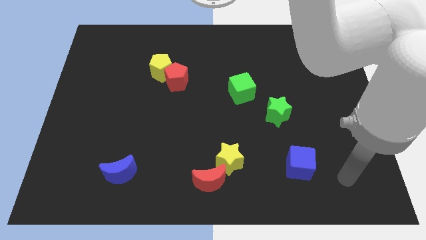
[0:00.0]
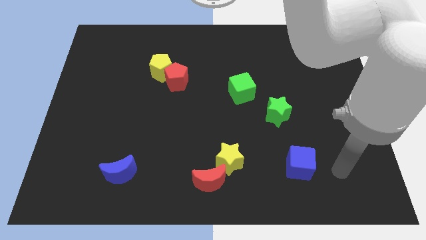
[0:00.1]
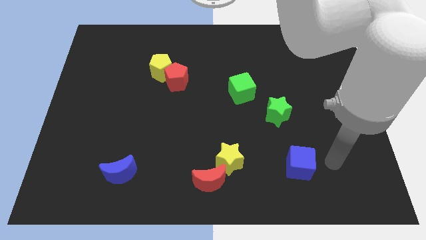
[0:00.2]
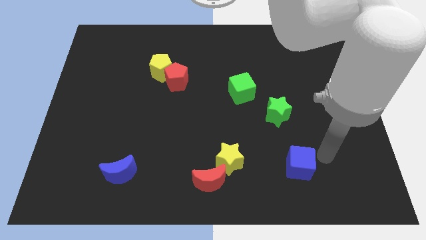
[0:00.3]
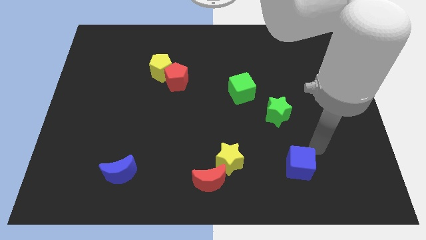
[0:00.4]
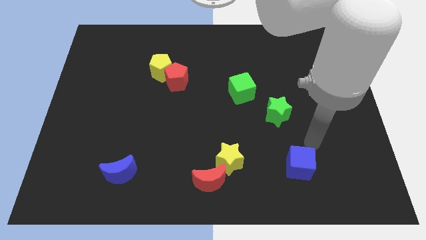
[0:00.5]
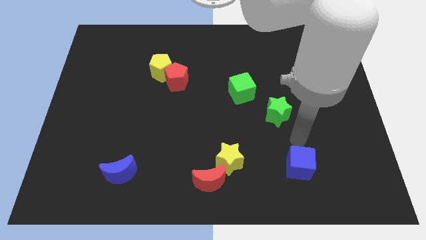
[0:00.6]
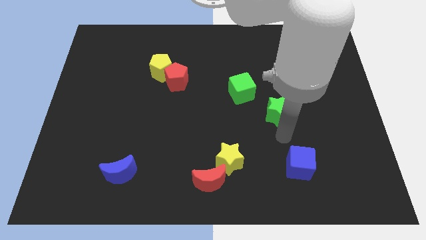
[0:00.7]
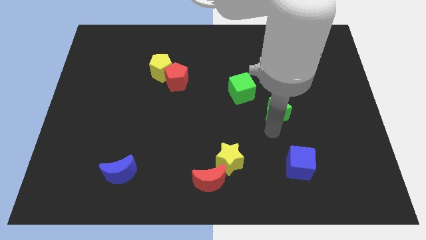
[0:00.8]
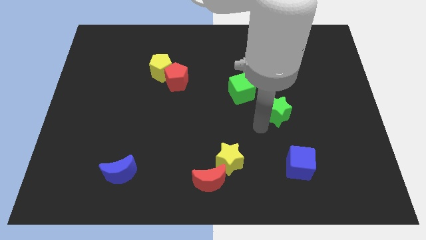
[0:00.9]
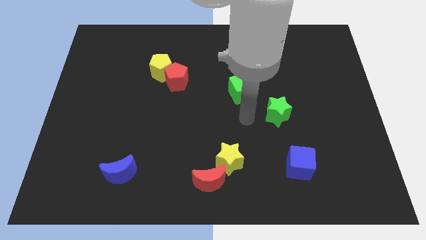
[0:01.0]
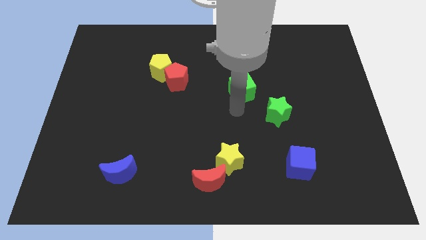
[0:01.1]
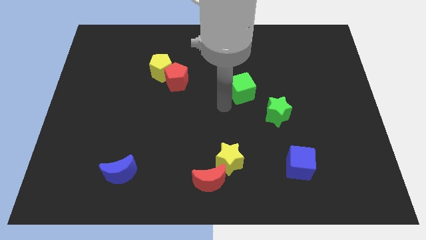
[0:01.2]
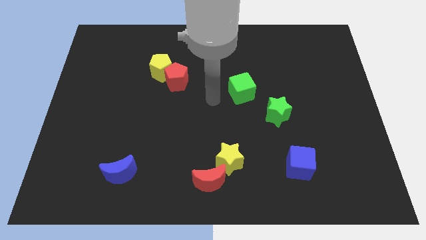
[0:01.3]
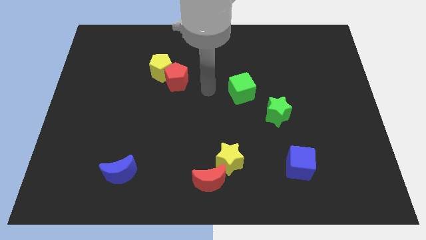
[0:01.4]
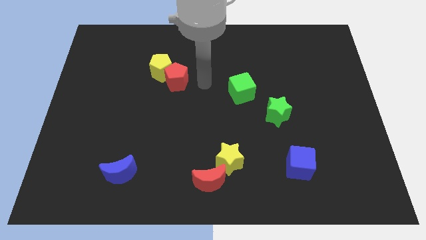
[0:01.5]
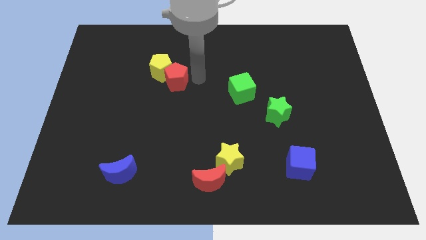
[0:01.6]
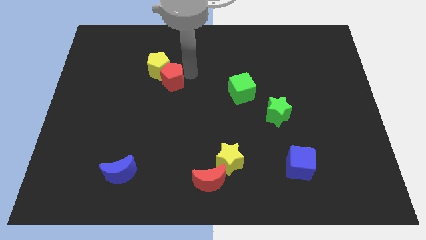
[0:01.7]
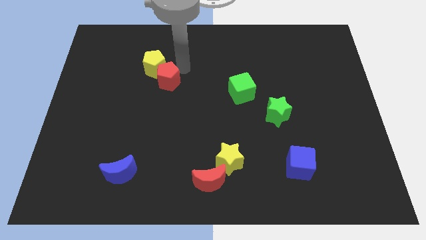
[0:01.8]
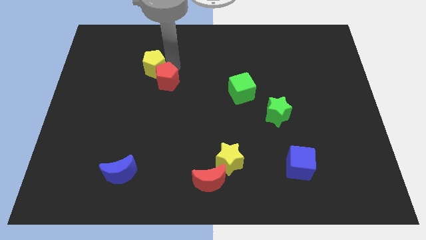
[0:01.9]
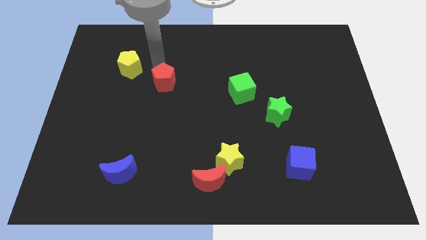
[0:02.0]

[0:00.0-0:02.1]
move the red pentagon away from the yellow pentagon

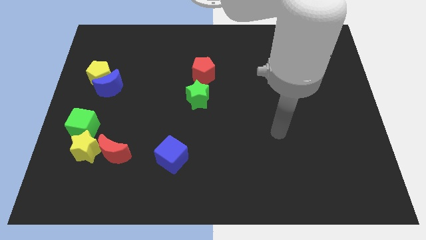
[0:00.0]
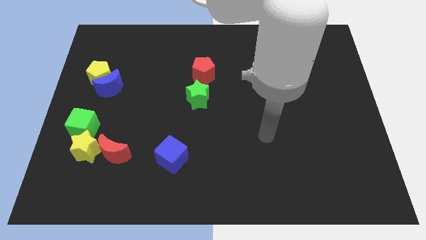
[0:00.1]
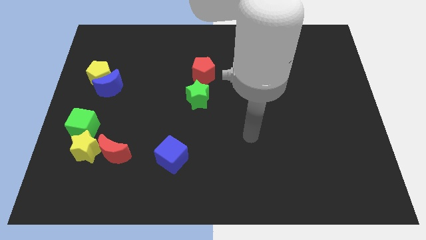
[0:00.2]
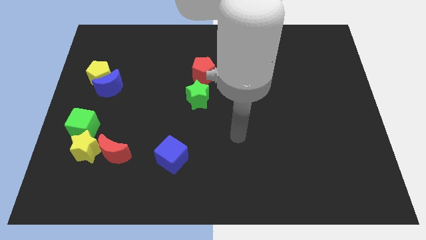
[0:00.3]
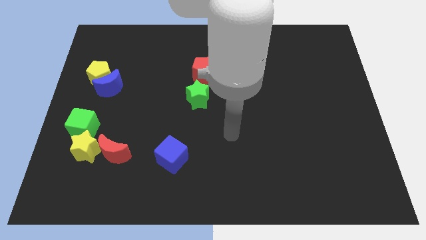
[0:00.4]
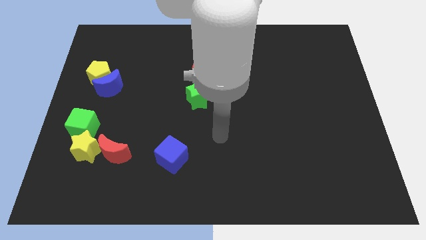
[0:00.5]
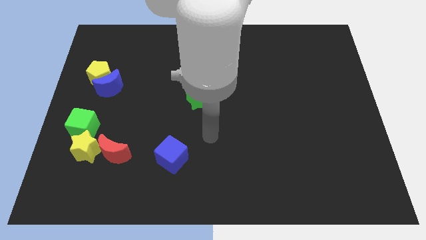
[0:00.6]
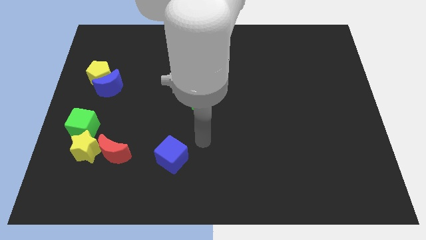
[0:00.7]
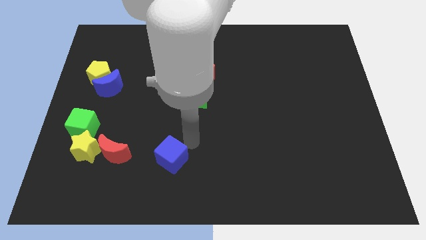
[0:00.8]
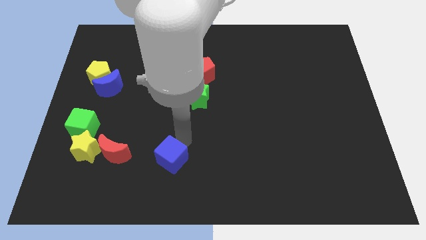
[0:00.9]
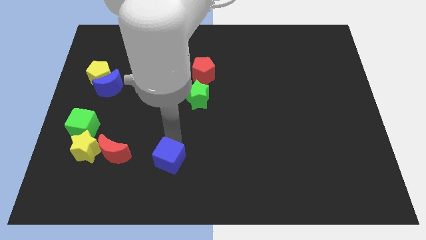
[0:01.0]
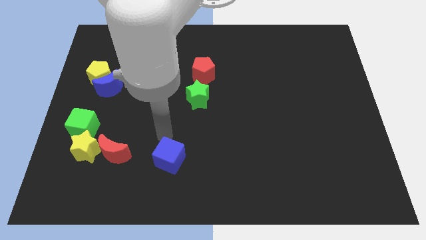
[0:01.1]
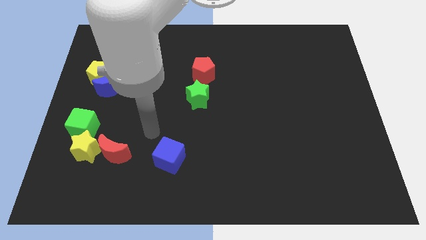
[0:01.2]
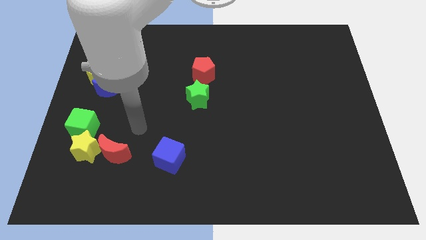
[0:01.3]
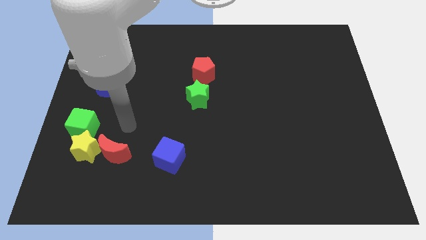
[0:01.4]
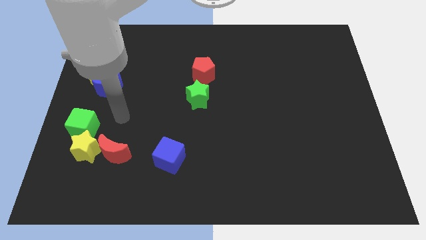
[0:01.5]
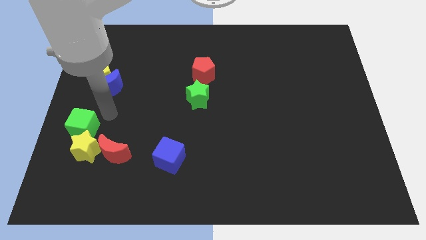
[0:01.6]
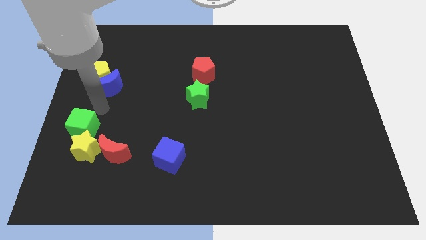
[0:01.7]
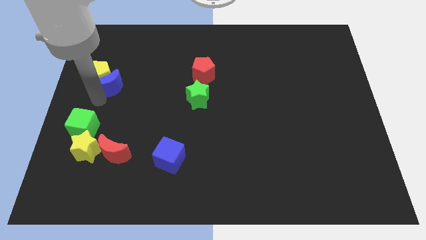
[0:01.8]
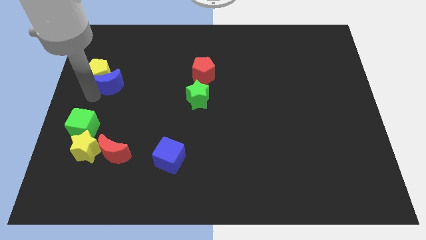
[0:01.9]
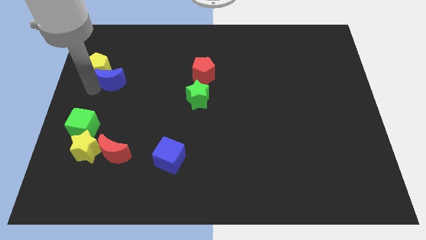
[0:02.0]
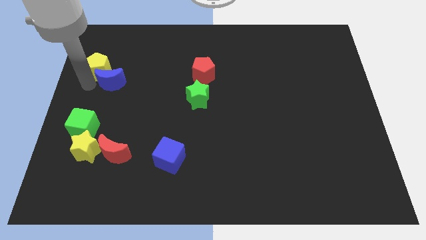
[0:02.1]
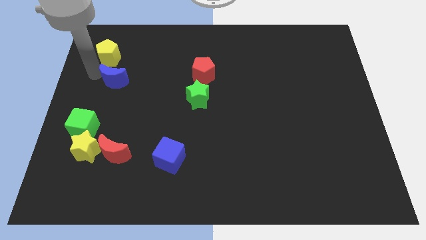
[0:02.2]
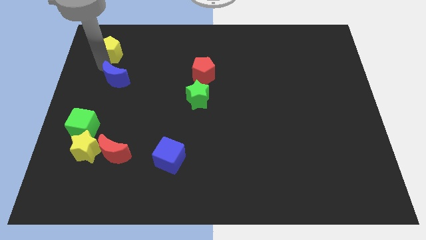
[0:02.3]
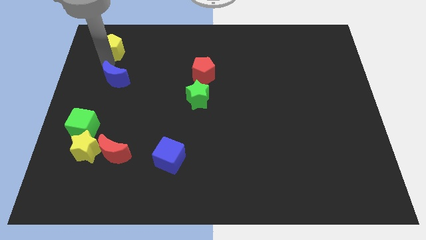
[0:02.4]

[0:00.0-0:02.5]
pull the blue moon apart from the yellow pentagon

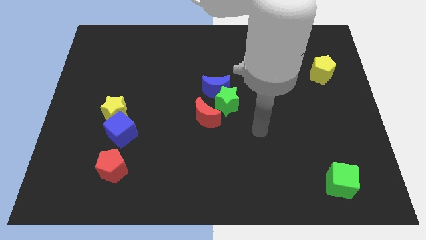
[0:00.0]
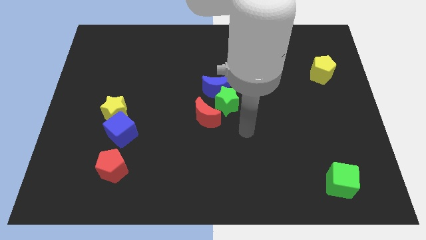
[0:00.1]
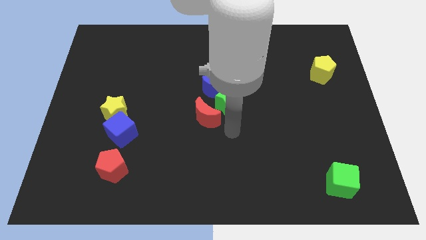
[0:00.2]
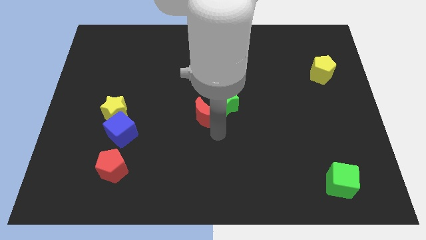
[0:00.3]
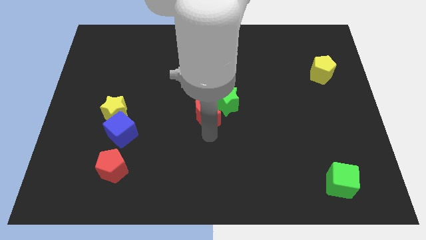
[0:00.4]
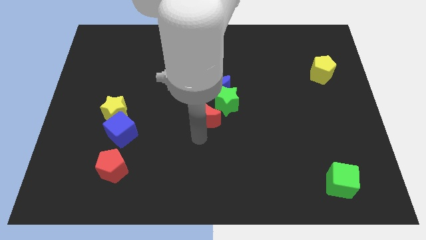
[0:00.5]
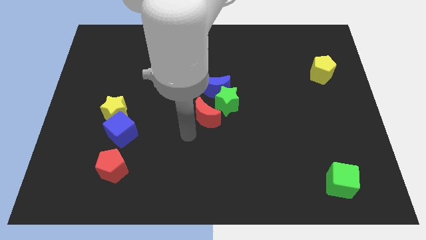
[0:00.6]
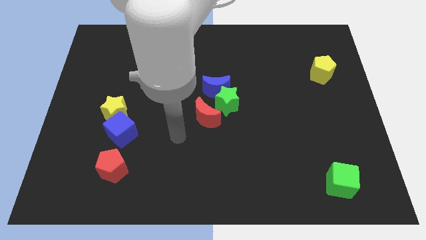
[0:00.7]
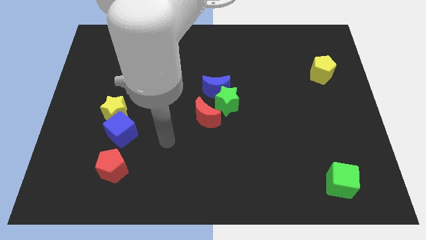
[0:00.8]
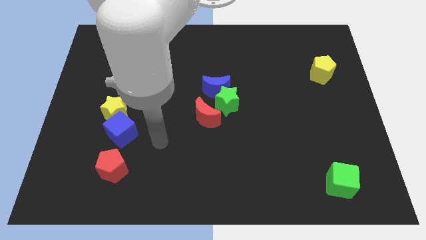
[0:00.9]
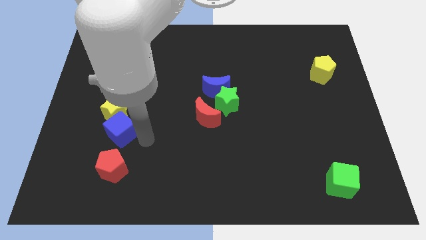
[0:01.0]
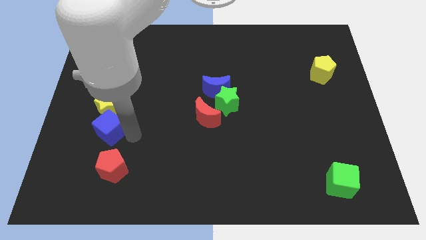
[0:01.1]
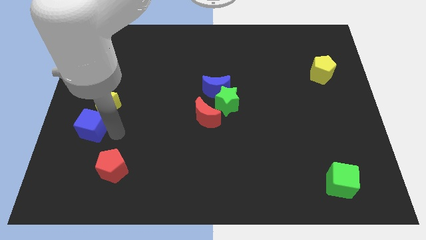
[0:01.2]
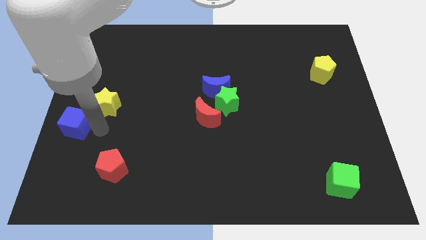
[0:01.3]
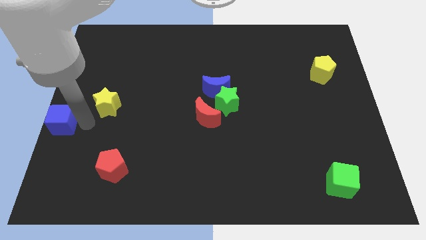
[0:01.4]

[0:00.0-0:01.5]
pull the yellow star apart from the blue cube

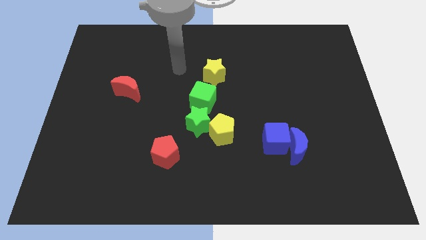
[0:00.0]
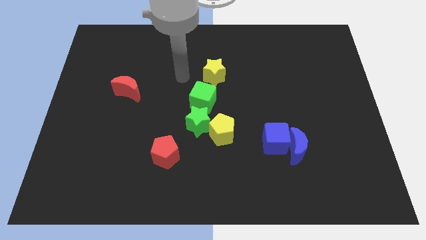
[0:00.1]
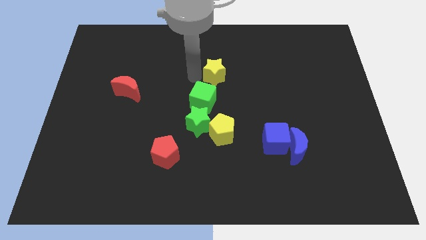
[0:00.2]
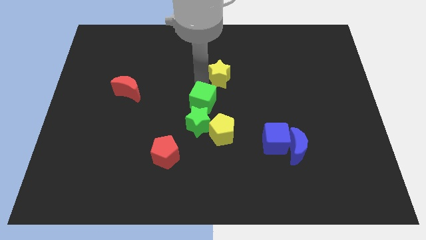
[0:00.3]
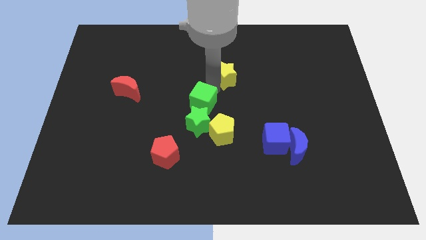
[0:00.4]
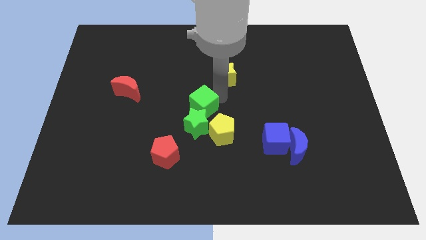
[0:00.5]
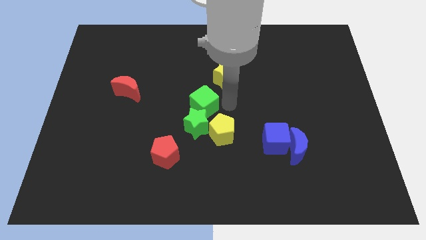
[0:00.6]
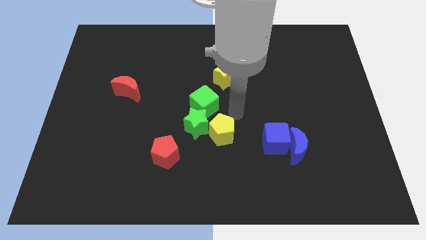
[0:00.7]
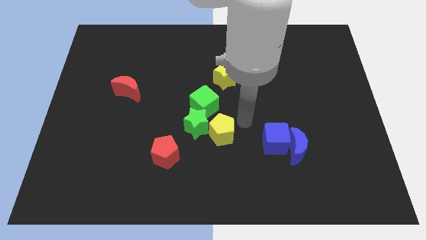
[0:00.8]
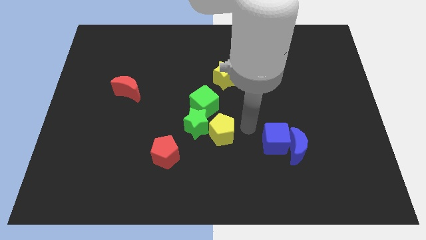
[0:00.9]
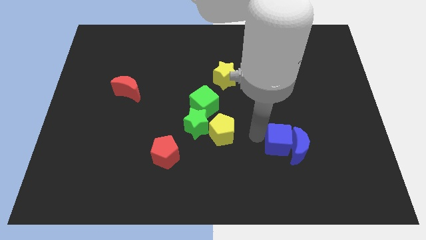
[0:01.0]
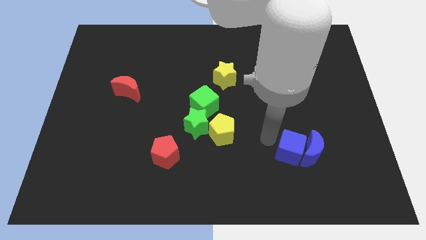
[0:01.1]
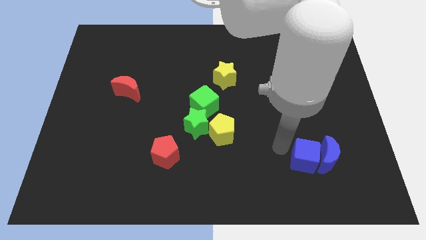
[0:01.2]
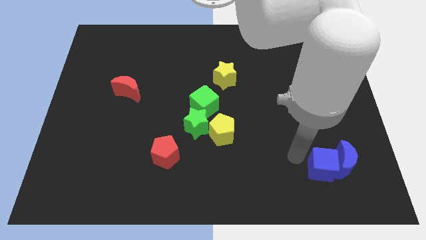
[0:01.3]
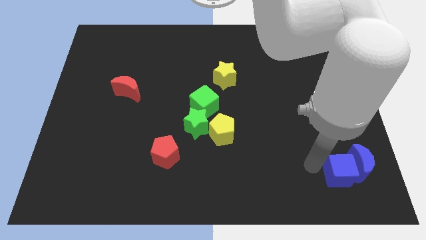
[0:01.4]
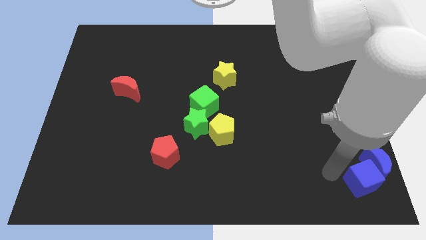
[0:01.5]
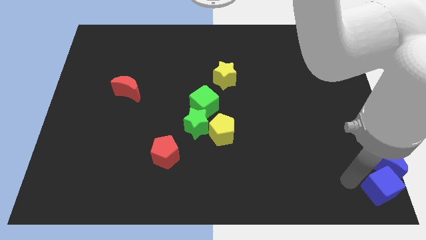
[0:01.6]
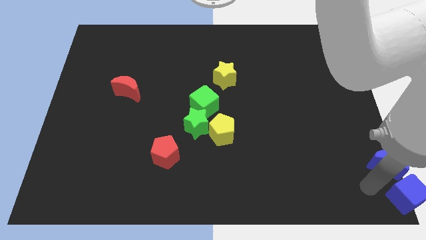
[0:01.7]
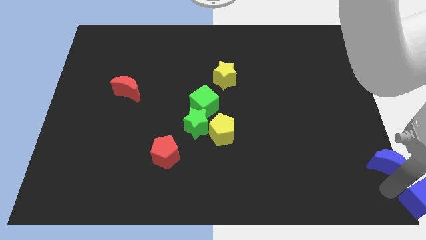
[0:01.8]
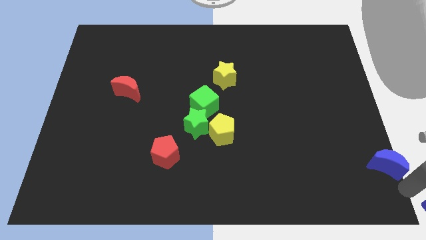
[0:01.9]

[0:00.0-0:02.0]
pull the blue moon apart from the blue cube

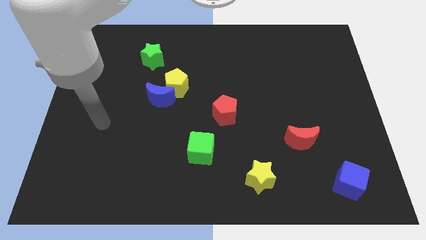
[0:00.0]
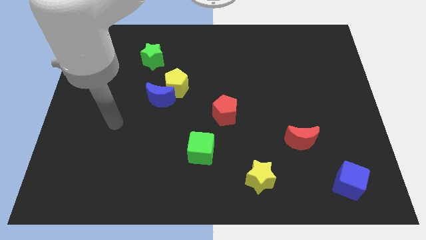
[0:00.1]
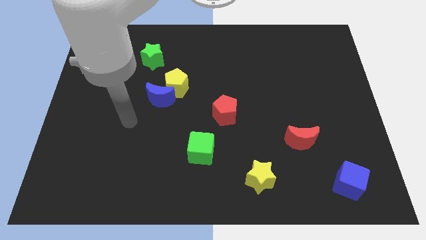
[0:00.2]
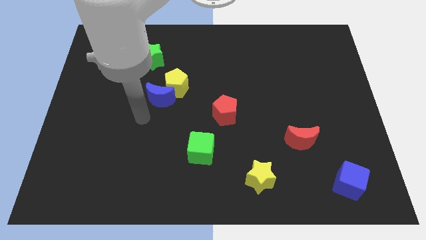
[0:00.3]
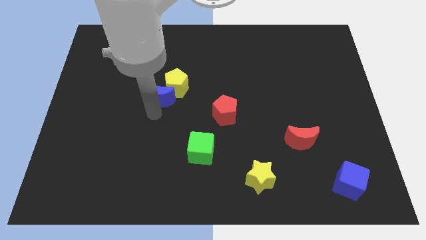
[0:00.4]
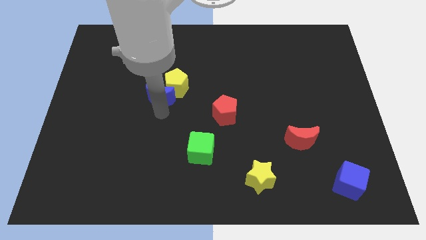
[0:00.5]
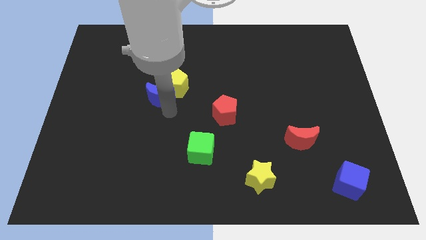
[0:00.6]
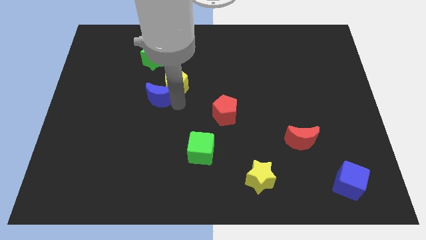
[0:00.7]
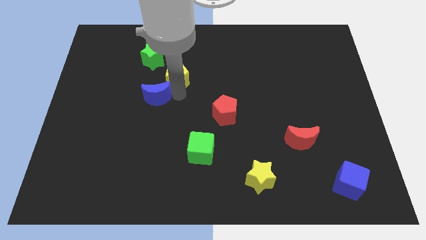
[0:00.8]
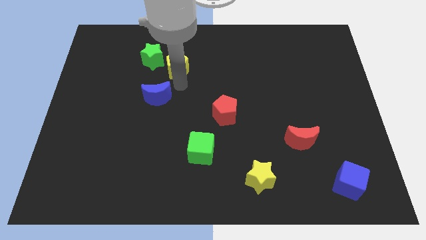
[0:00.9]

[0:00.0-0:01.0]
separate the blue moon from the yellow pentagon

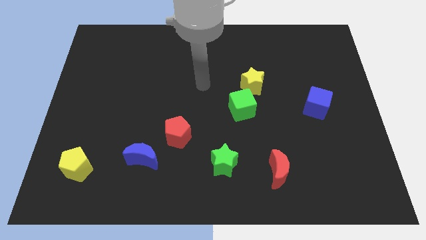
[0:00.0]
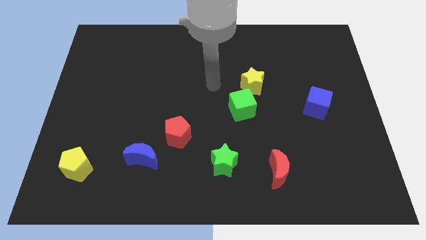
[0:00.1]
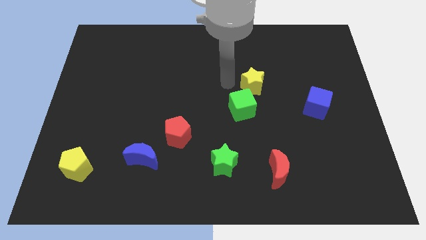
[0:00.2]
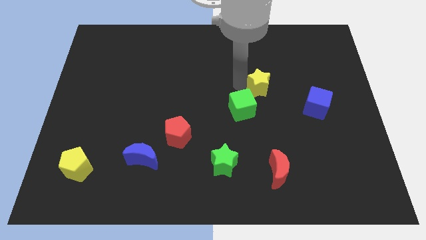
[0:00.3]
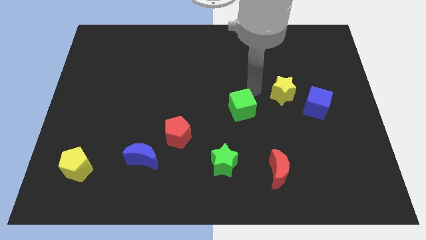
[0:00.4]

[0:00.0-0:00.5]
separate the green cube from the yellow star
